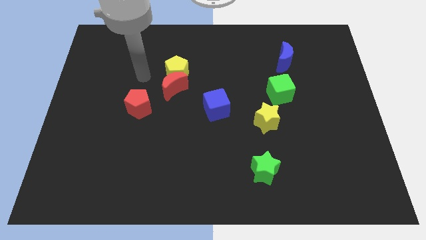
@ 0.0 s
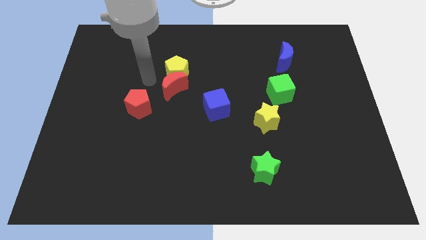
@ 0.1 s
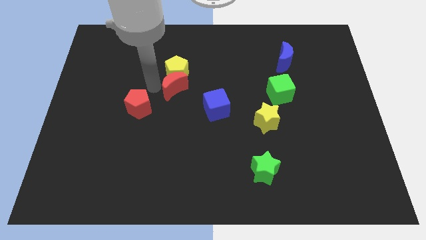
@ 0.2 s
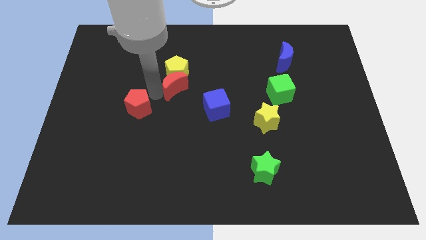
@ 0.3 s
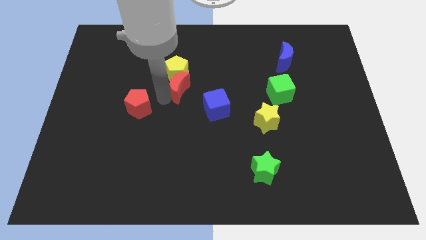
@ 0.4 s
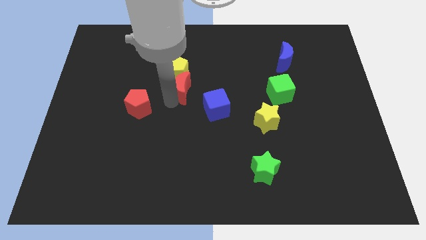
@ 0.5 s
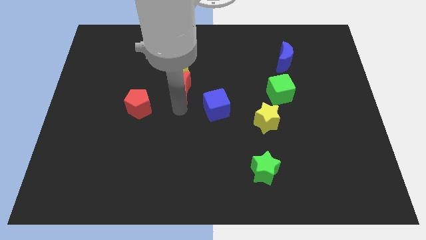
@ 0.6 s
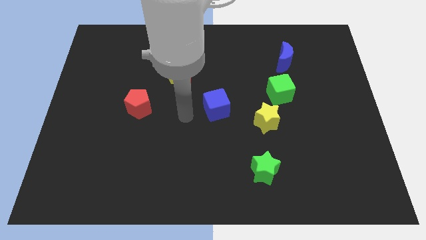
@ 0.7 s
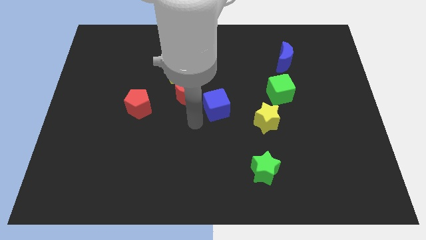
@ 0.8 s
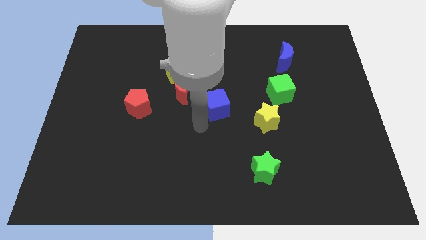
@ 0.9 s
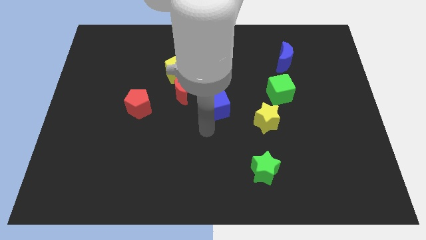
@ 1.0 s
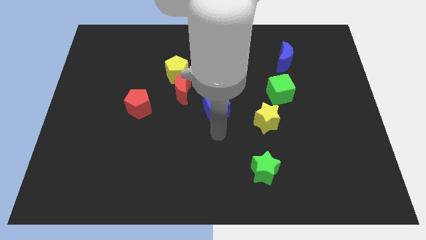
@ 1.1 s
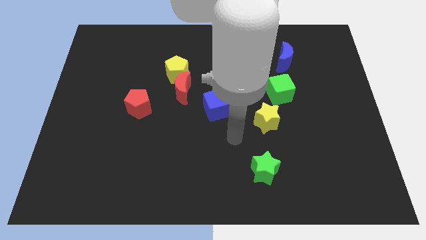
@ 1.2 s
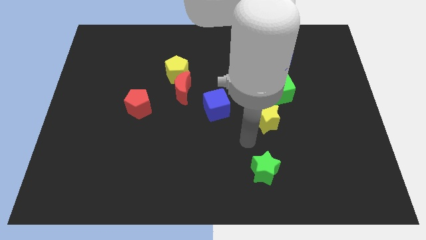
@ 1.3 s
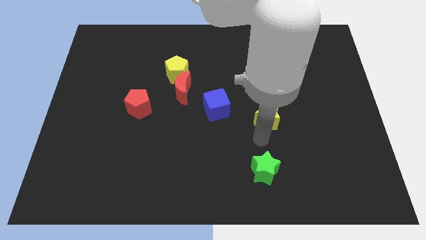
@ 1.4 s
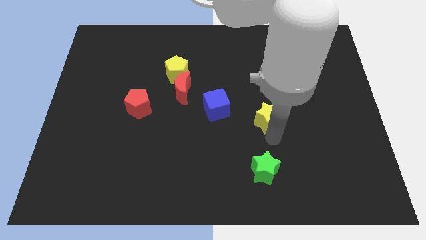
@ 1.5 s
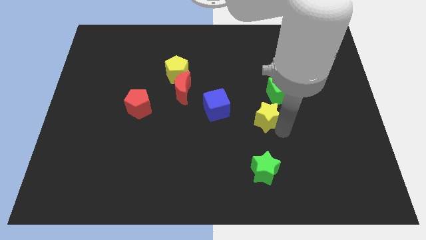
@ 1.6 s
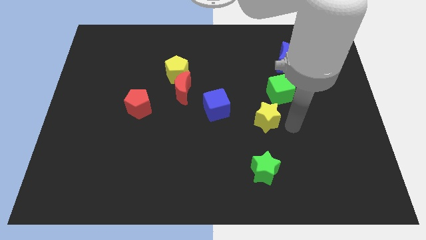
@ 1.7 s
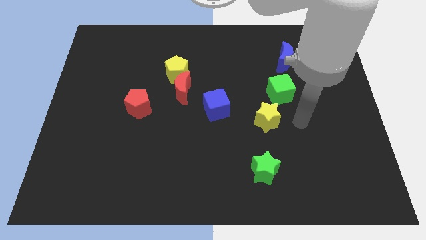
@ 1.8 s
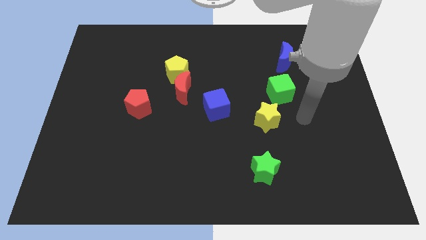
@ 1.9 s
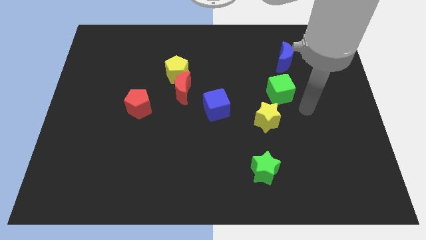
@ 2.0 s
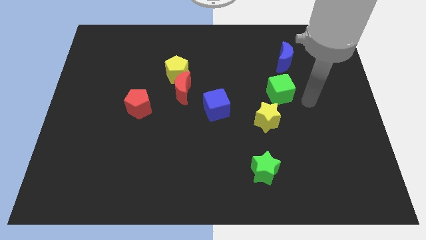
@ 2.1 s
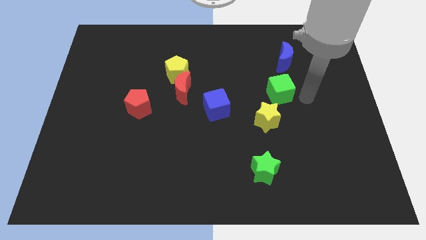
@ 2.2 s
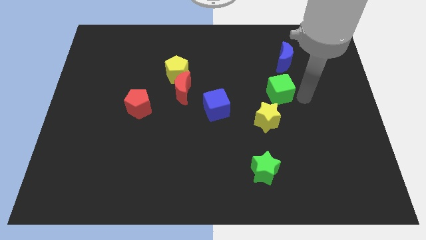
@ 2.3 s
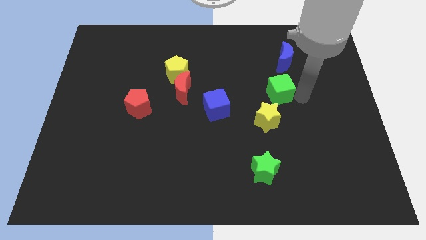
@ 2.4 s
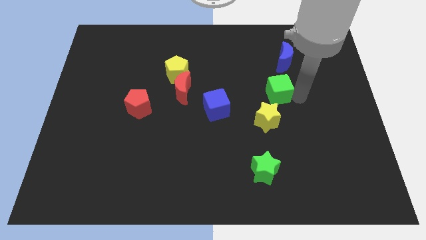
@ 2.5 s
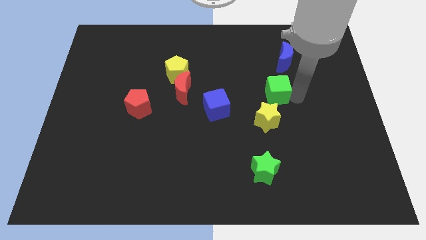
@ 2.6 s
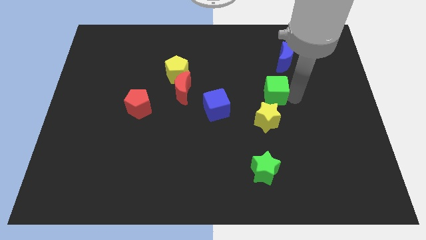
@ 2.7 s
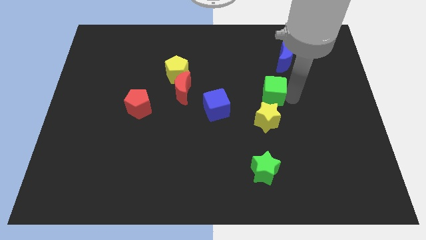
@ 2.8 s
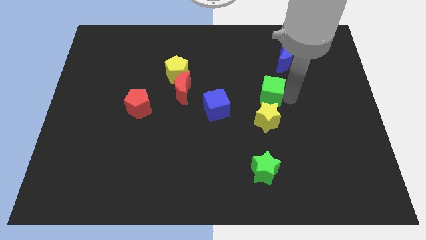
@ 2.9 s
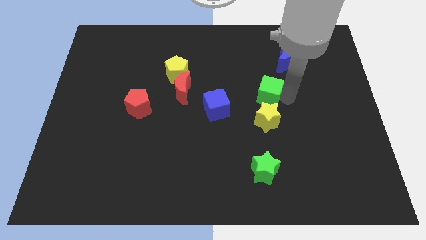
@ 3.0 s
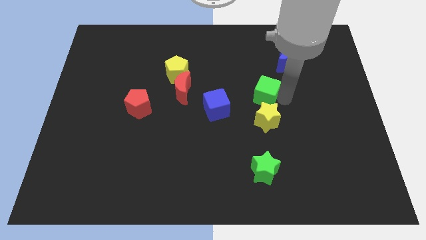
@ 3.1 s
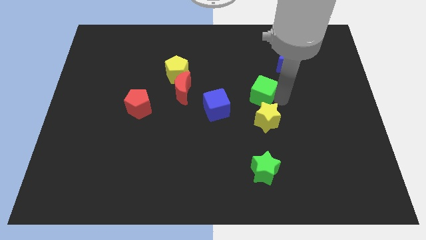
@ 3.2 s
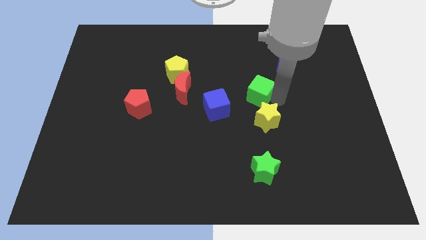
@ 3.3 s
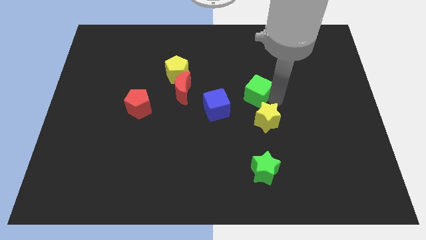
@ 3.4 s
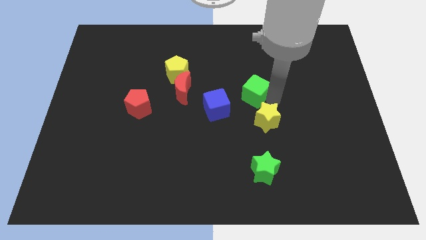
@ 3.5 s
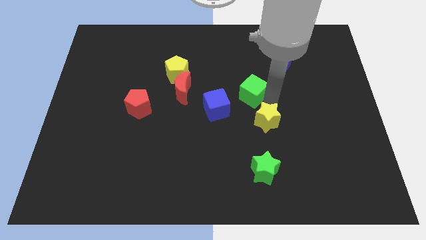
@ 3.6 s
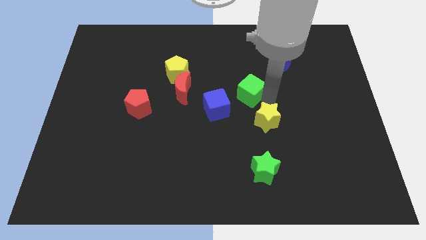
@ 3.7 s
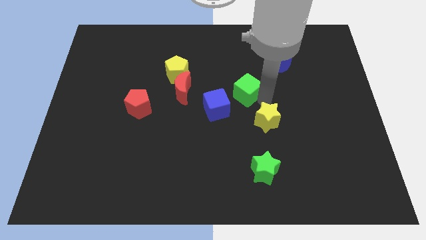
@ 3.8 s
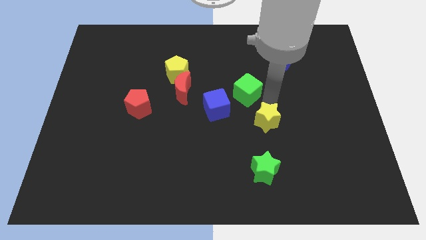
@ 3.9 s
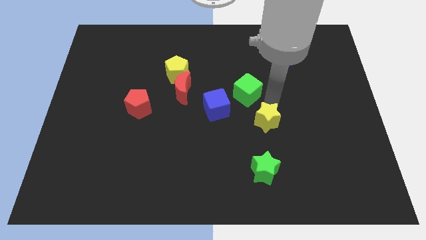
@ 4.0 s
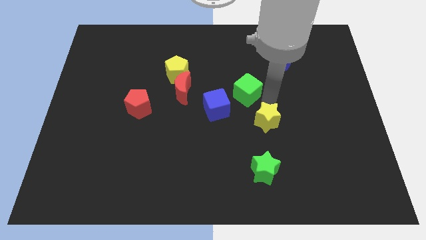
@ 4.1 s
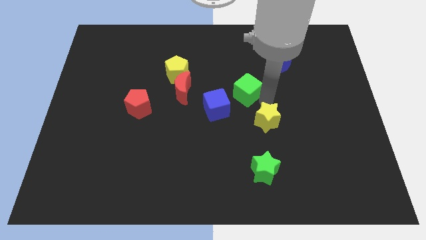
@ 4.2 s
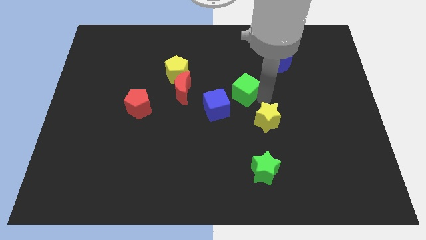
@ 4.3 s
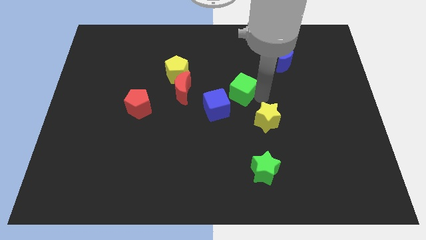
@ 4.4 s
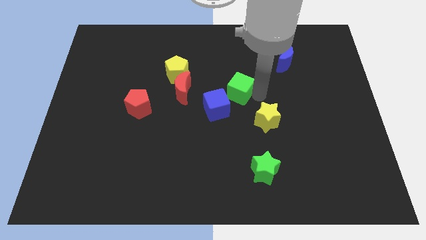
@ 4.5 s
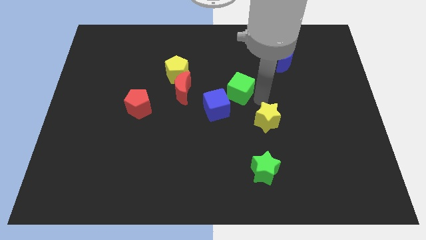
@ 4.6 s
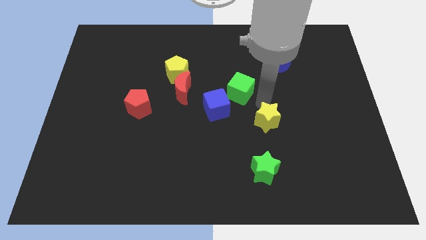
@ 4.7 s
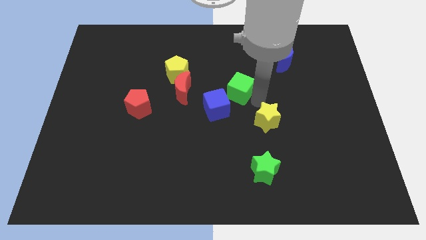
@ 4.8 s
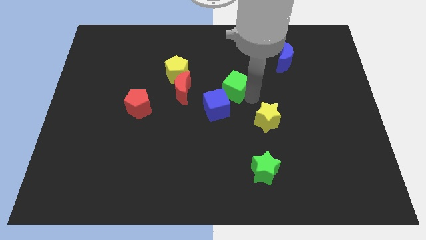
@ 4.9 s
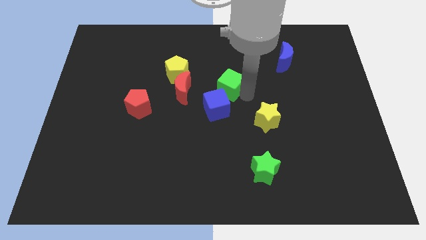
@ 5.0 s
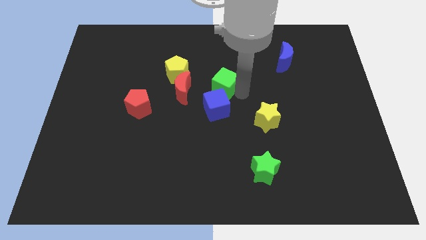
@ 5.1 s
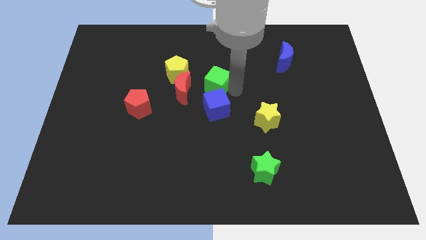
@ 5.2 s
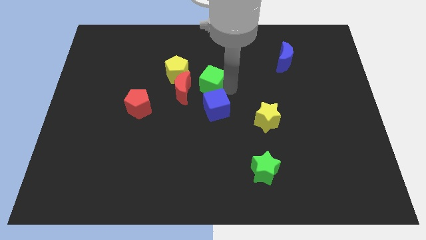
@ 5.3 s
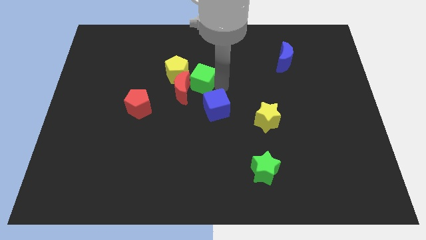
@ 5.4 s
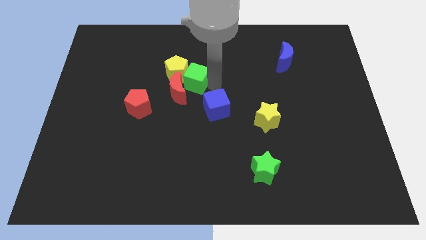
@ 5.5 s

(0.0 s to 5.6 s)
move the green cube next to the yellow pentagon

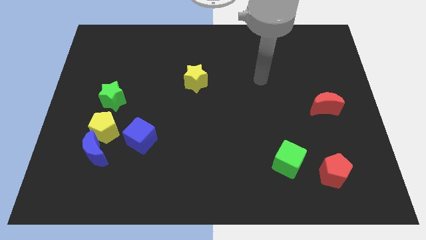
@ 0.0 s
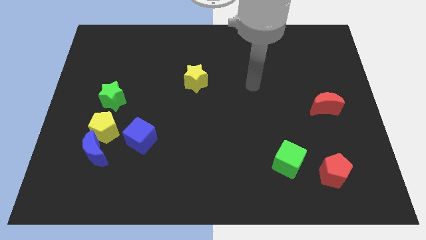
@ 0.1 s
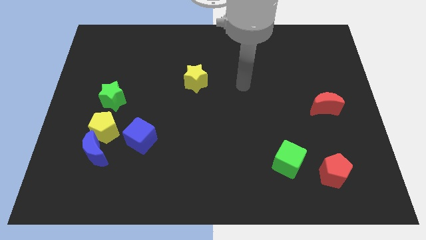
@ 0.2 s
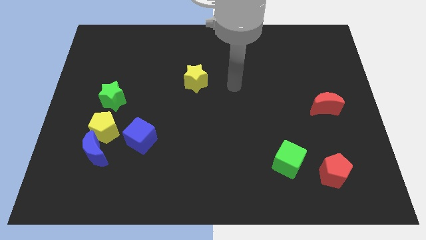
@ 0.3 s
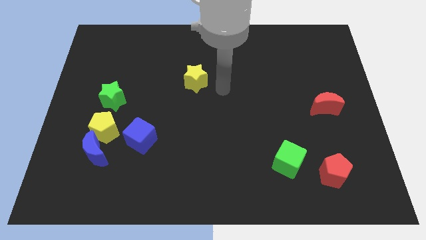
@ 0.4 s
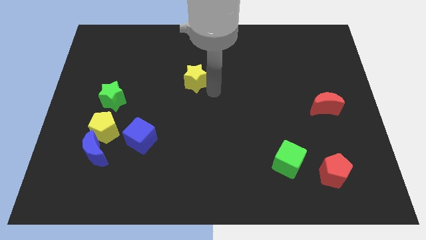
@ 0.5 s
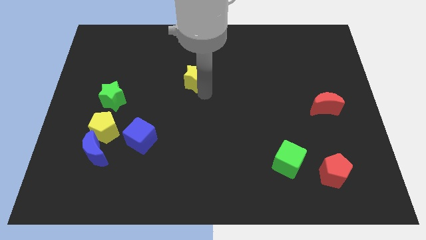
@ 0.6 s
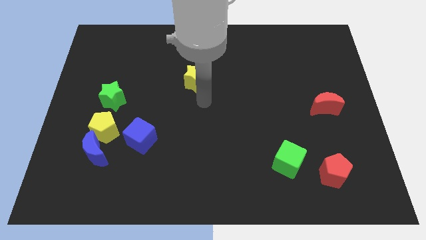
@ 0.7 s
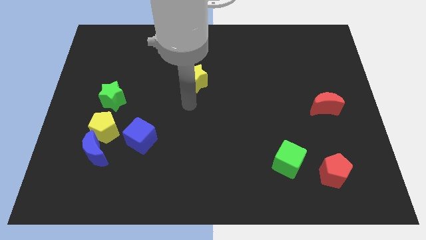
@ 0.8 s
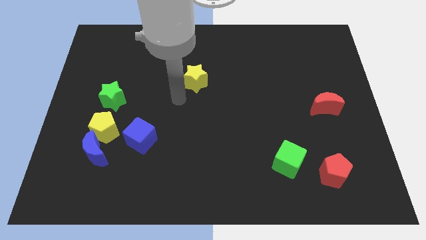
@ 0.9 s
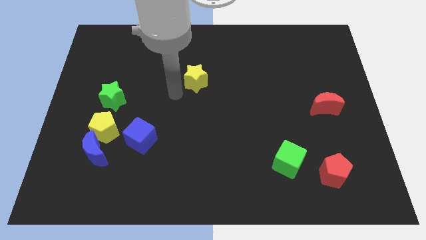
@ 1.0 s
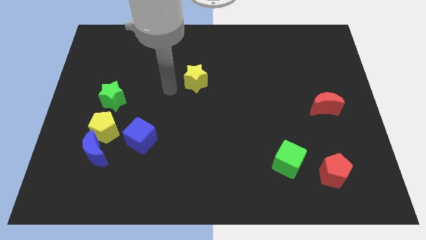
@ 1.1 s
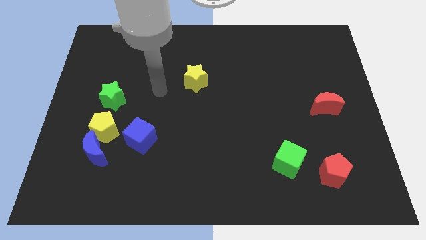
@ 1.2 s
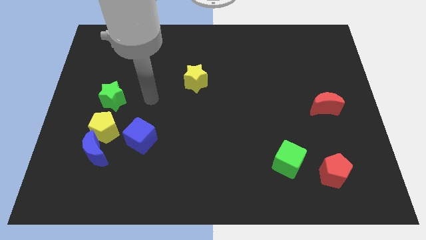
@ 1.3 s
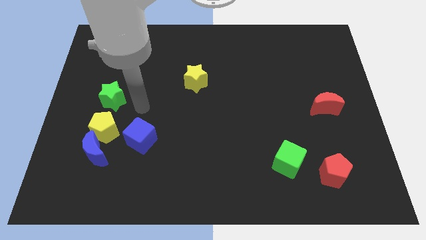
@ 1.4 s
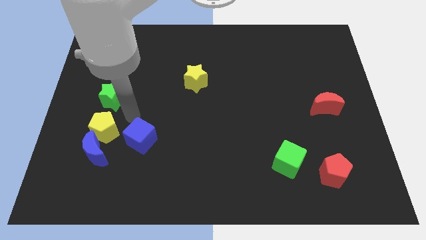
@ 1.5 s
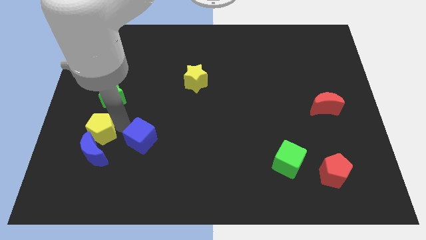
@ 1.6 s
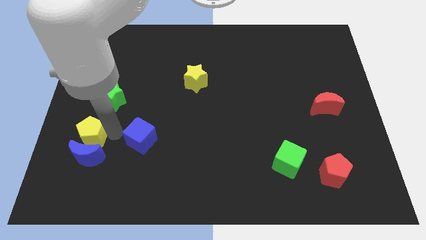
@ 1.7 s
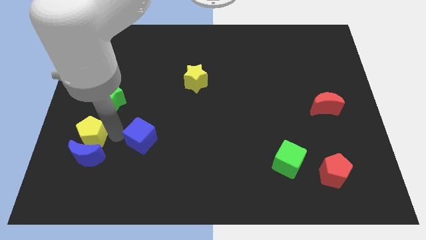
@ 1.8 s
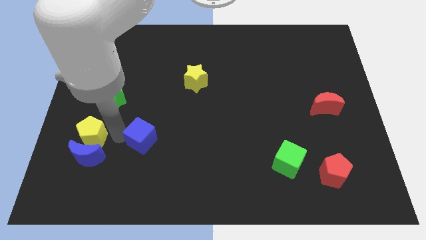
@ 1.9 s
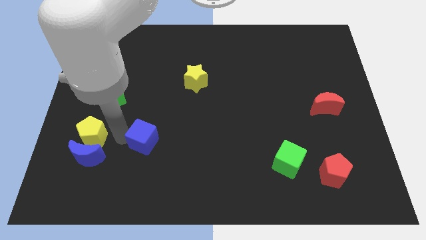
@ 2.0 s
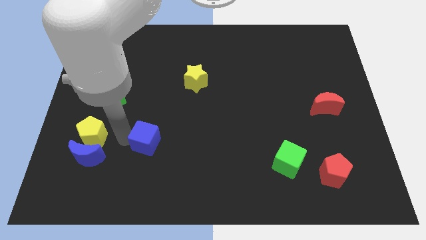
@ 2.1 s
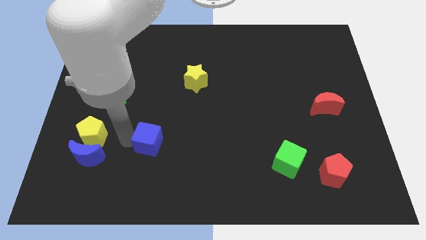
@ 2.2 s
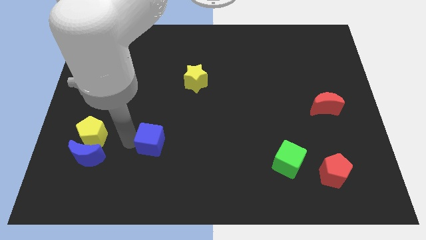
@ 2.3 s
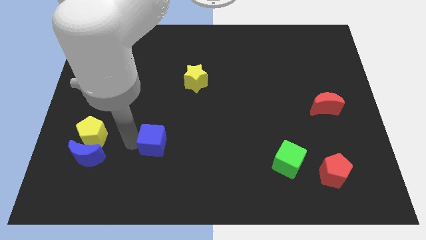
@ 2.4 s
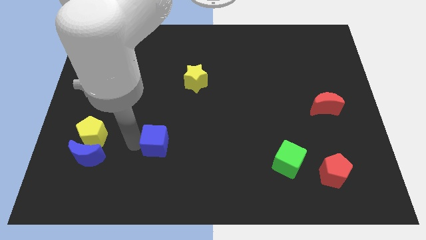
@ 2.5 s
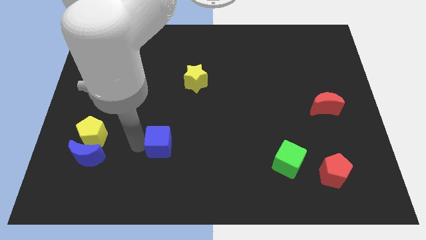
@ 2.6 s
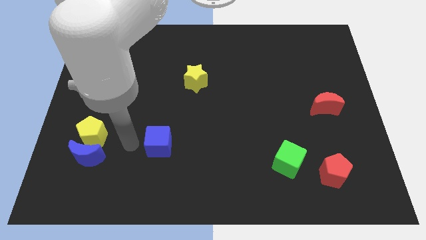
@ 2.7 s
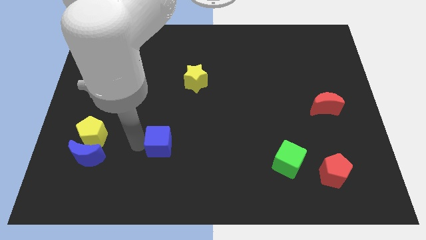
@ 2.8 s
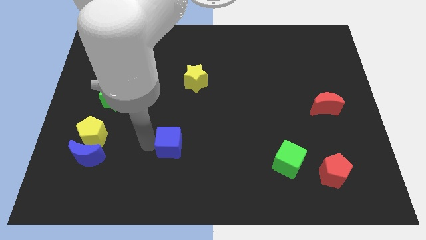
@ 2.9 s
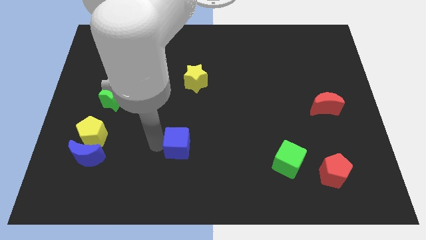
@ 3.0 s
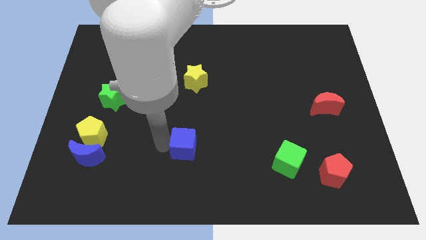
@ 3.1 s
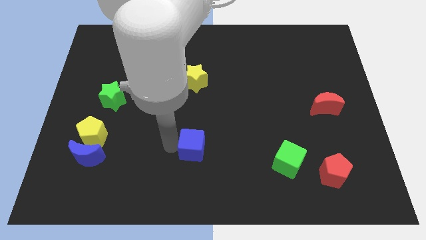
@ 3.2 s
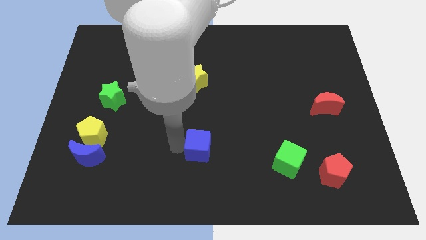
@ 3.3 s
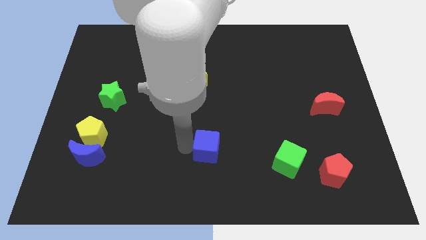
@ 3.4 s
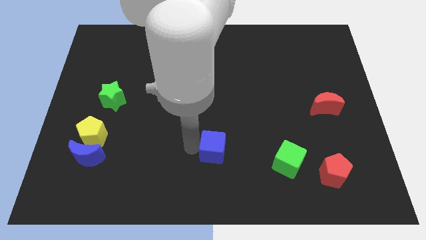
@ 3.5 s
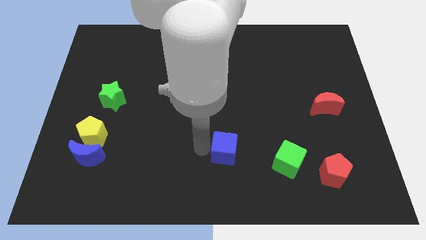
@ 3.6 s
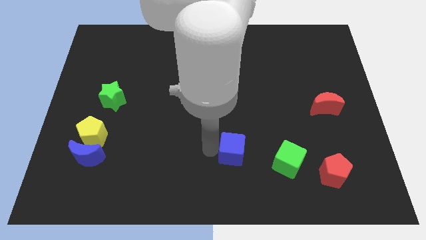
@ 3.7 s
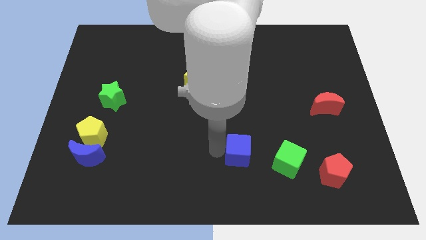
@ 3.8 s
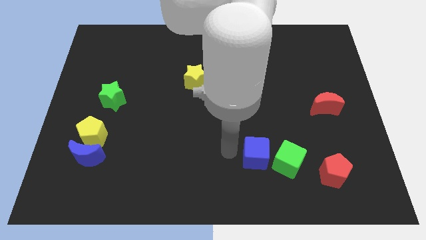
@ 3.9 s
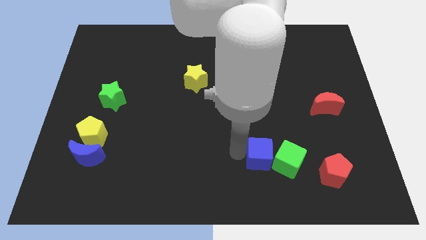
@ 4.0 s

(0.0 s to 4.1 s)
slide the blue cube next to the green cube
